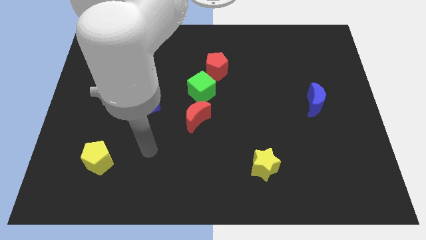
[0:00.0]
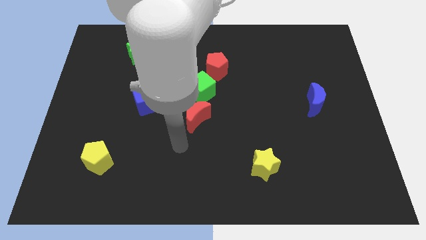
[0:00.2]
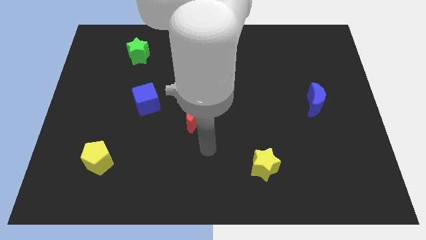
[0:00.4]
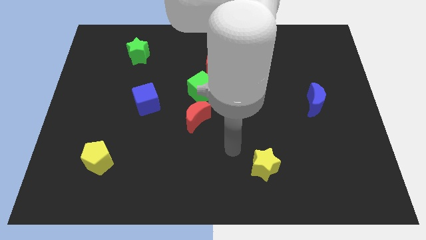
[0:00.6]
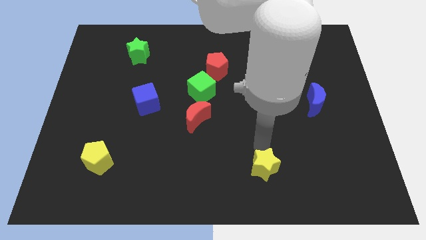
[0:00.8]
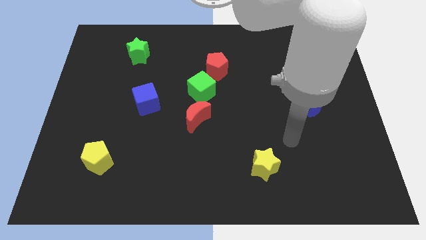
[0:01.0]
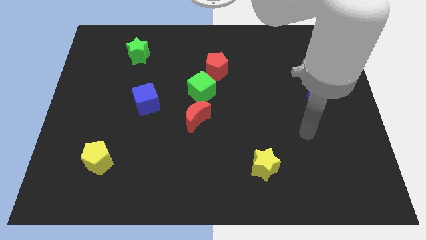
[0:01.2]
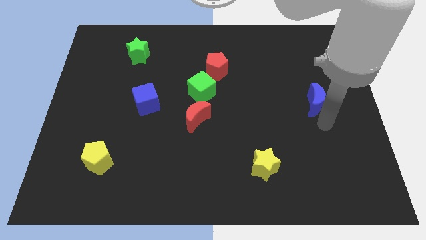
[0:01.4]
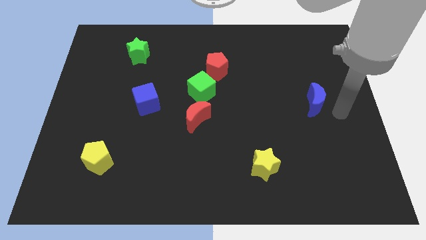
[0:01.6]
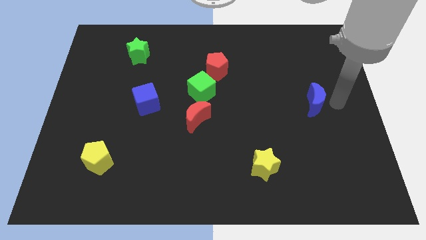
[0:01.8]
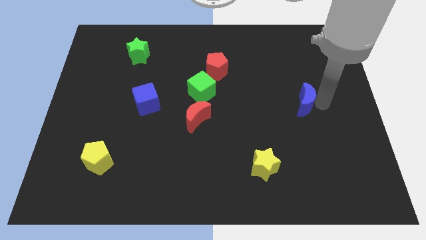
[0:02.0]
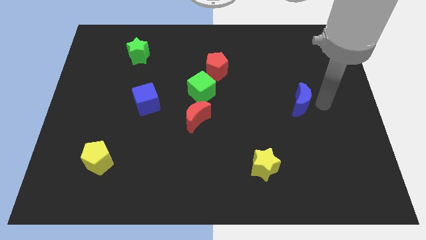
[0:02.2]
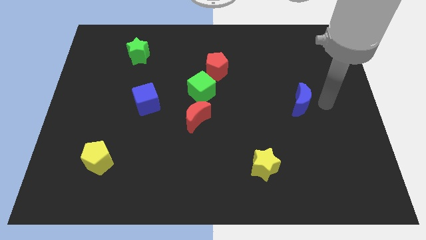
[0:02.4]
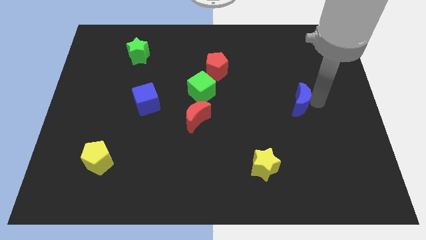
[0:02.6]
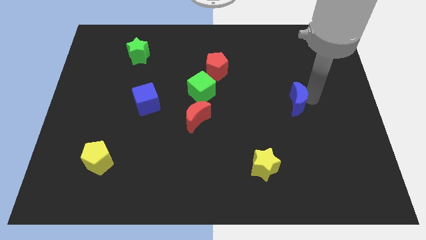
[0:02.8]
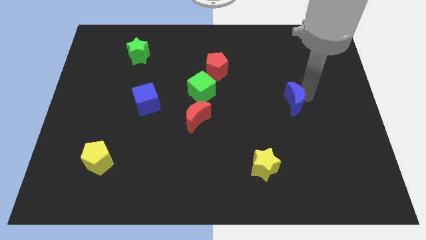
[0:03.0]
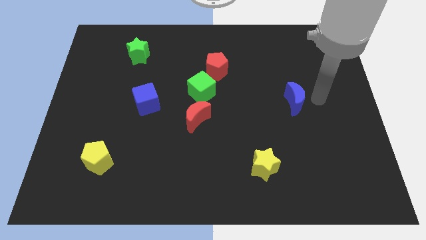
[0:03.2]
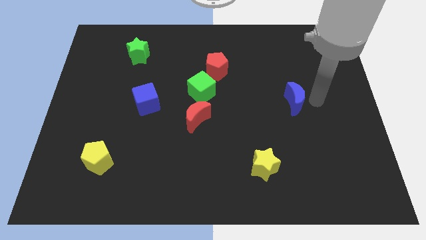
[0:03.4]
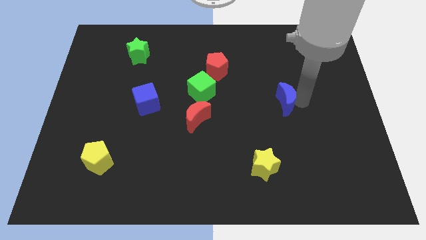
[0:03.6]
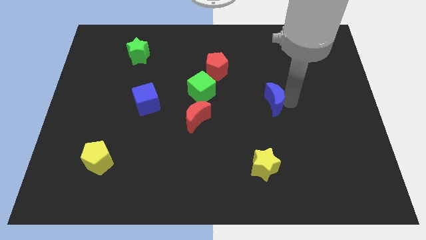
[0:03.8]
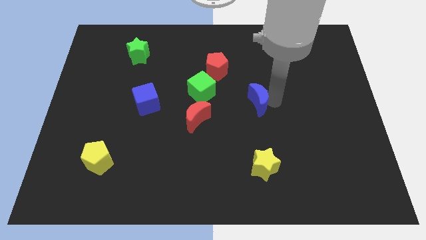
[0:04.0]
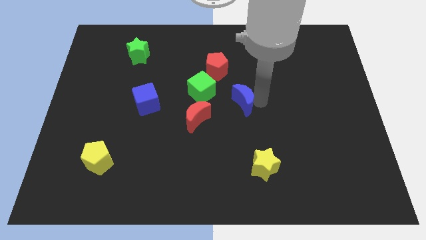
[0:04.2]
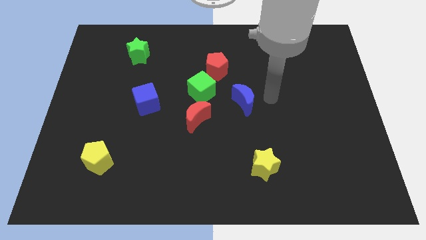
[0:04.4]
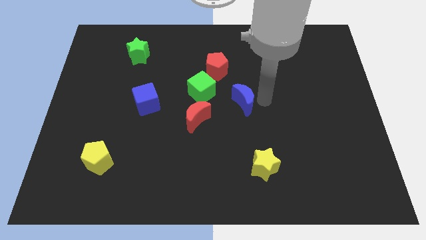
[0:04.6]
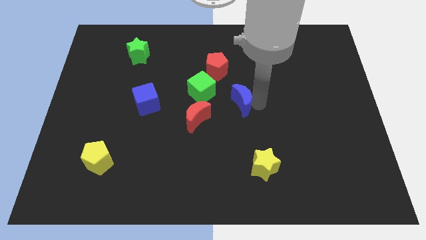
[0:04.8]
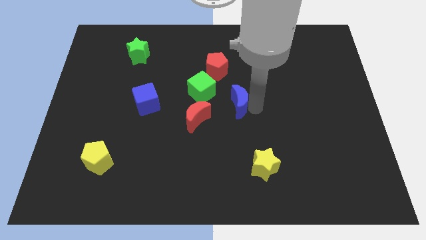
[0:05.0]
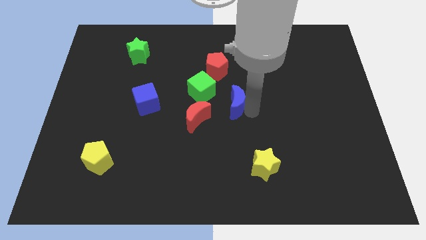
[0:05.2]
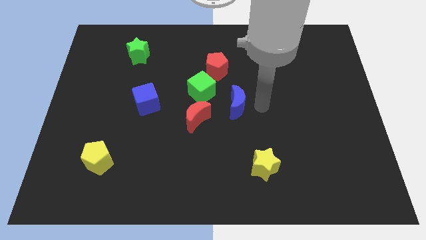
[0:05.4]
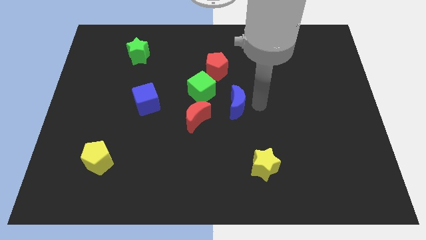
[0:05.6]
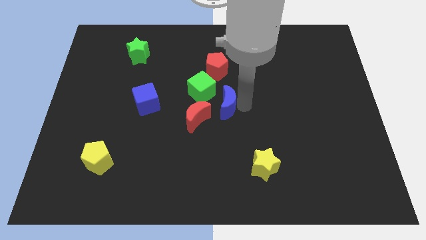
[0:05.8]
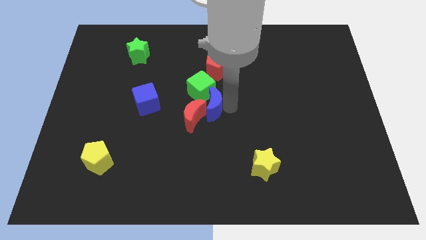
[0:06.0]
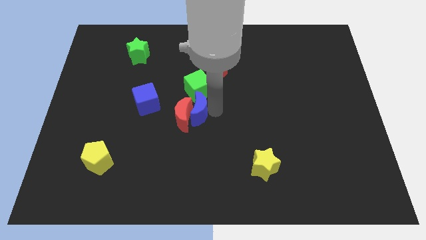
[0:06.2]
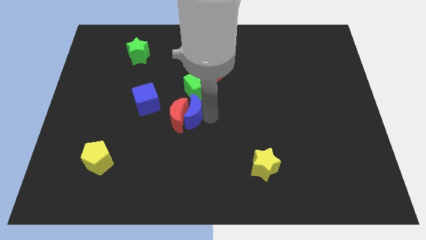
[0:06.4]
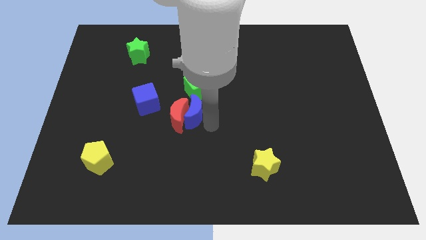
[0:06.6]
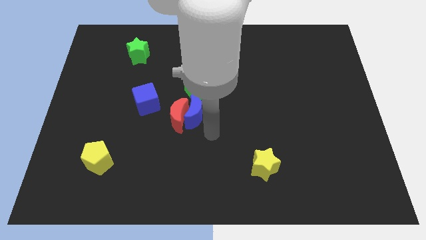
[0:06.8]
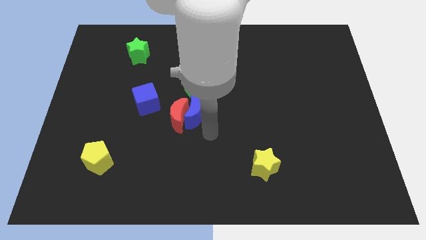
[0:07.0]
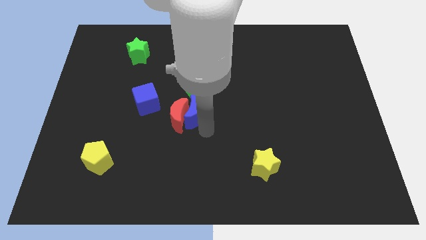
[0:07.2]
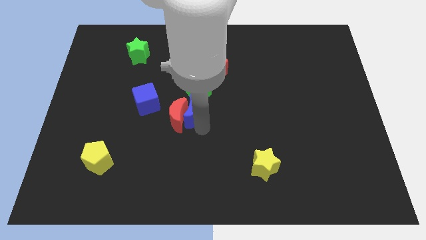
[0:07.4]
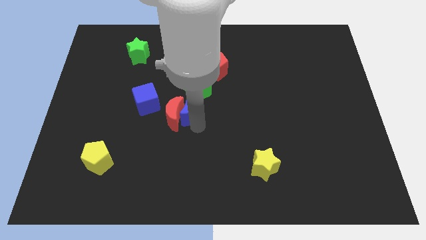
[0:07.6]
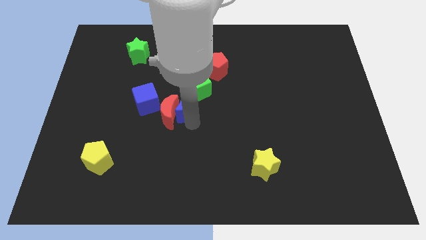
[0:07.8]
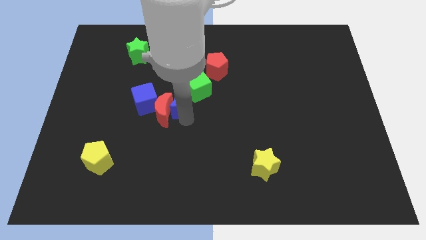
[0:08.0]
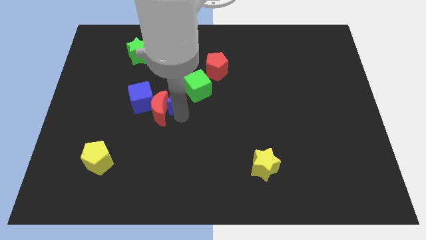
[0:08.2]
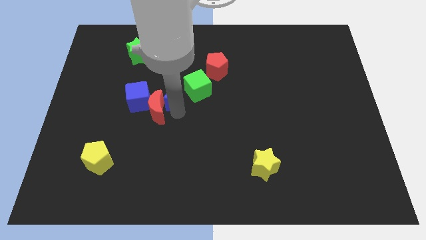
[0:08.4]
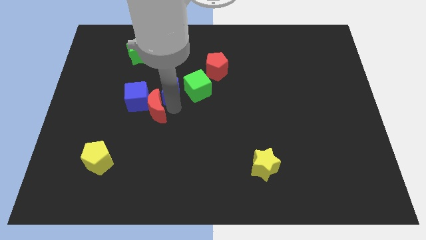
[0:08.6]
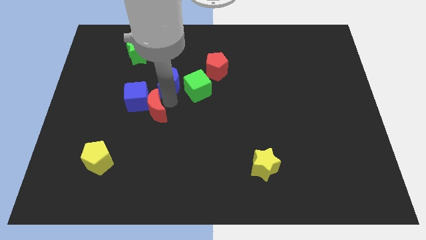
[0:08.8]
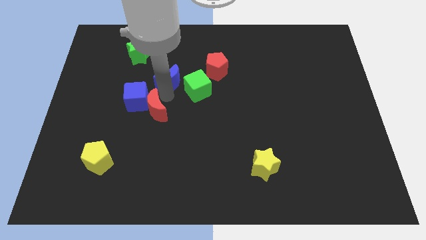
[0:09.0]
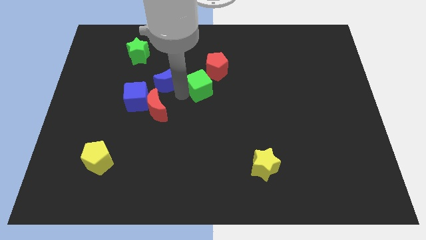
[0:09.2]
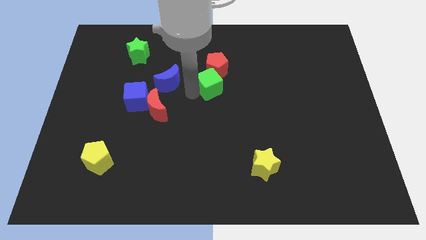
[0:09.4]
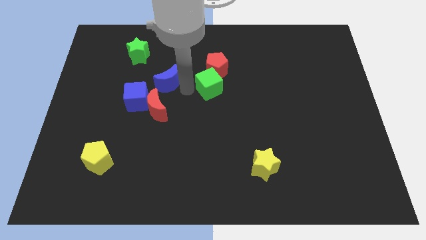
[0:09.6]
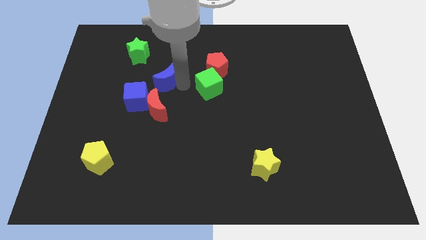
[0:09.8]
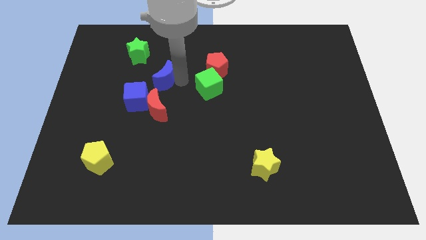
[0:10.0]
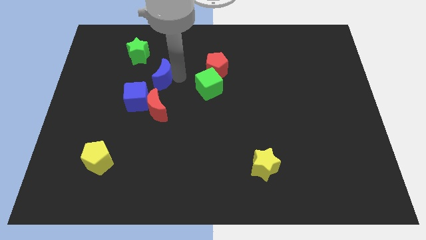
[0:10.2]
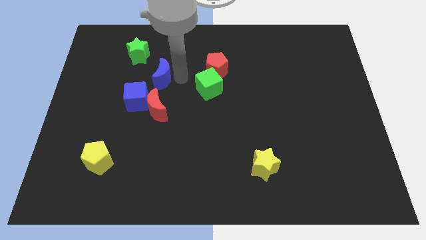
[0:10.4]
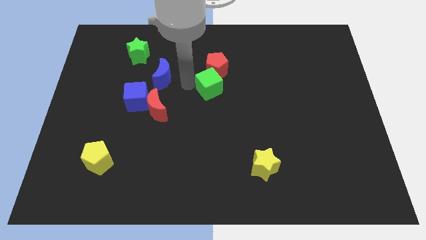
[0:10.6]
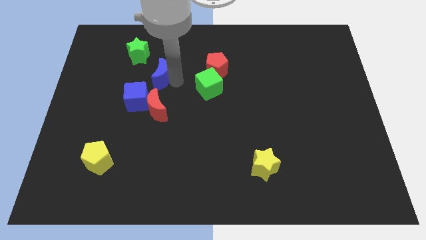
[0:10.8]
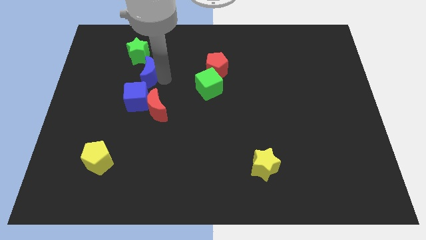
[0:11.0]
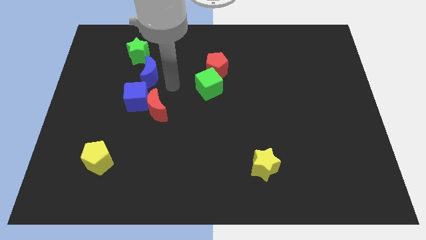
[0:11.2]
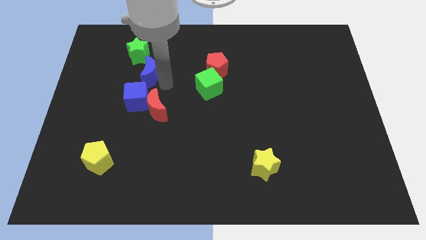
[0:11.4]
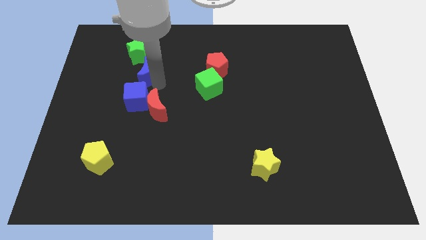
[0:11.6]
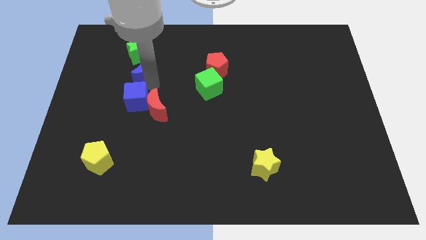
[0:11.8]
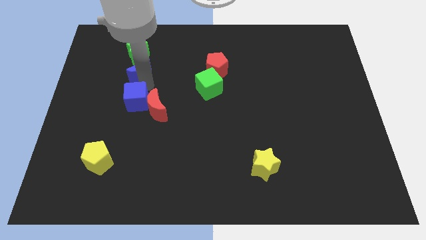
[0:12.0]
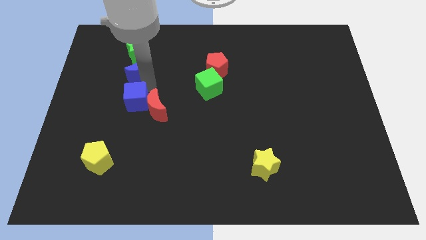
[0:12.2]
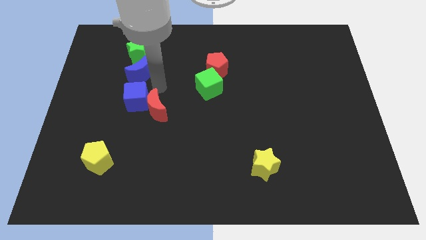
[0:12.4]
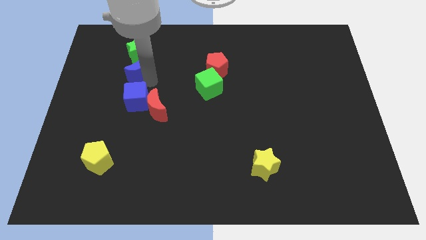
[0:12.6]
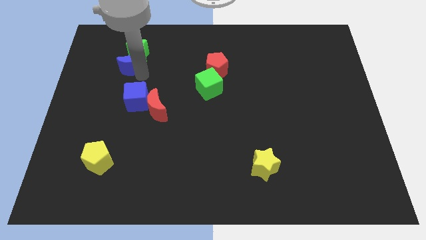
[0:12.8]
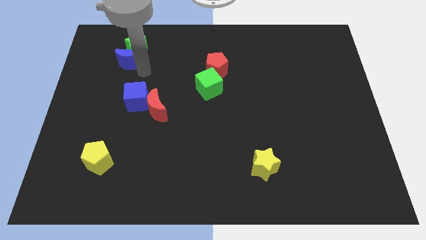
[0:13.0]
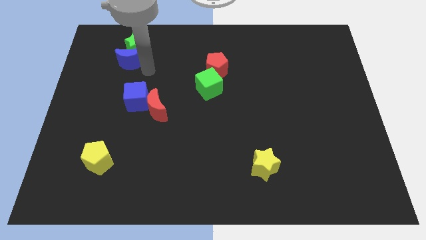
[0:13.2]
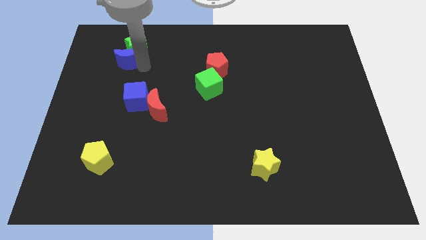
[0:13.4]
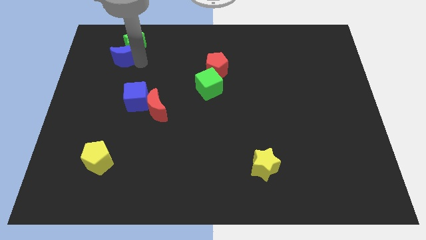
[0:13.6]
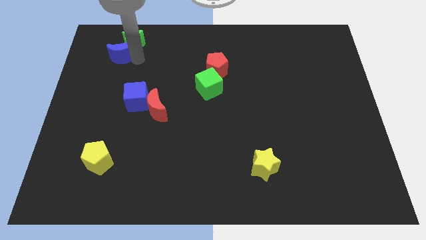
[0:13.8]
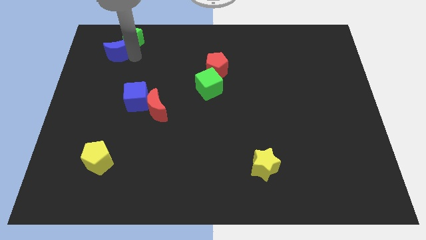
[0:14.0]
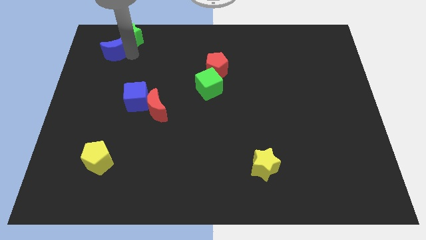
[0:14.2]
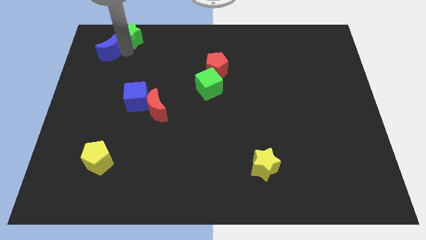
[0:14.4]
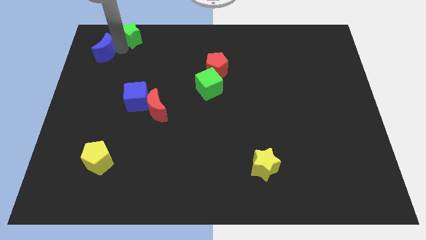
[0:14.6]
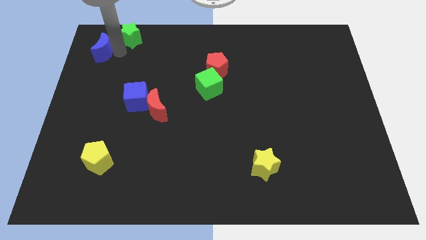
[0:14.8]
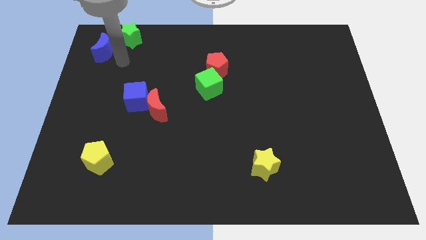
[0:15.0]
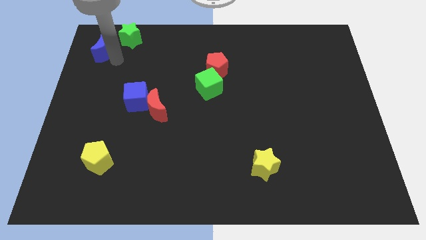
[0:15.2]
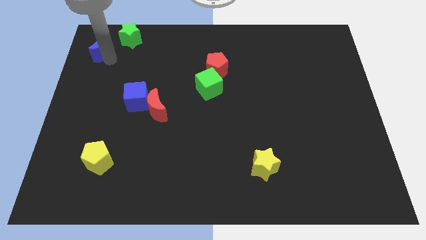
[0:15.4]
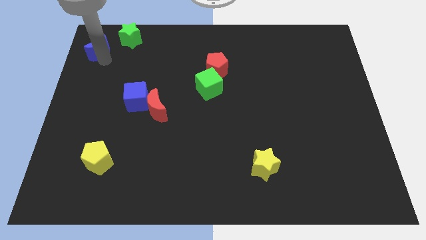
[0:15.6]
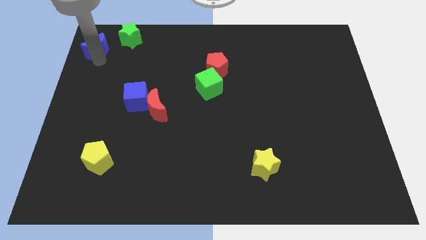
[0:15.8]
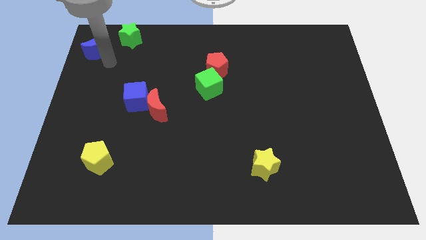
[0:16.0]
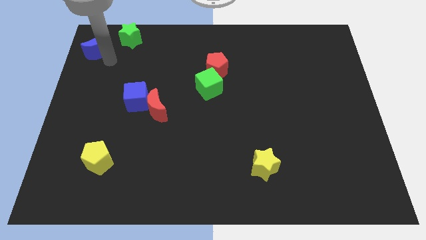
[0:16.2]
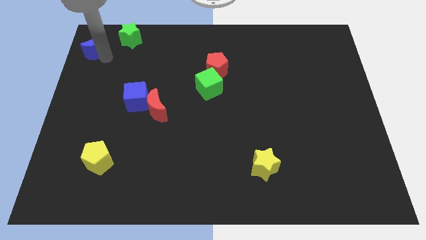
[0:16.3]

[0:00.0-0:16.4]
slide the blue moon to the top left of the board
